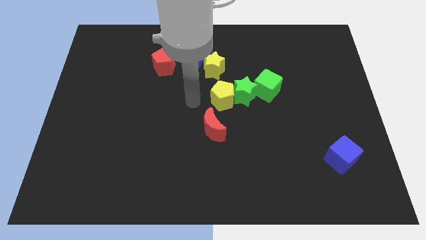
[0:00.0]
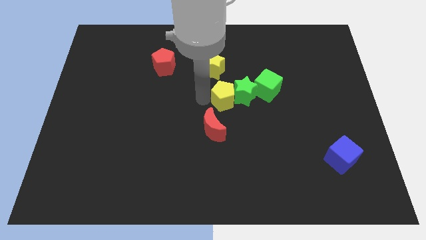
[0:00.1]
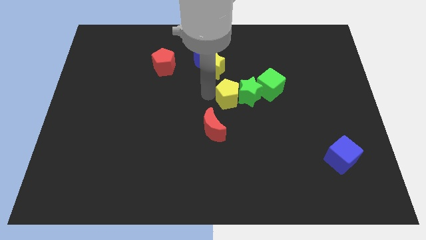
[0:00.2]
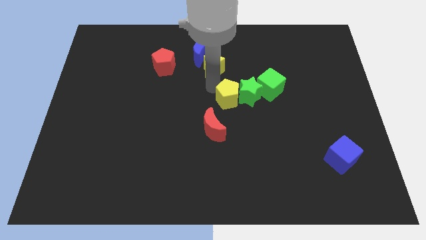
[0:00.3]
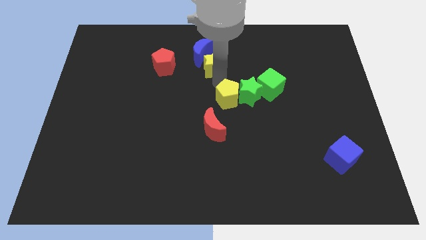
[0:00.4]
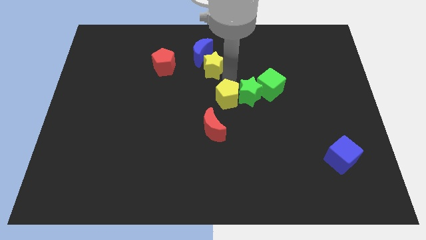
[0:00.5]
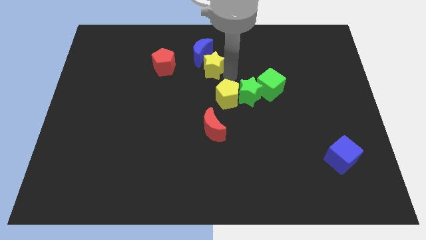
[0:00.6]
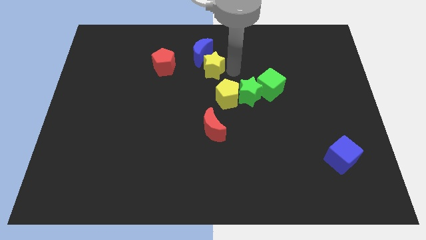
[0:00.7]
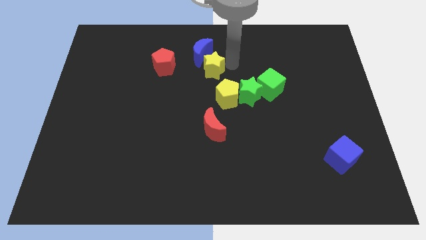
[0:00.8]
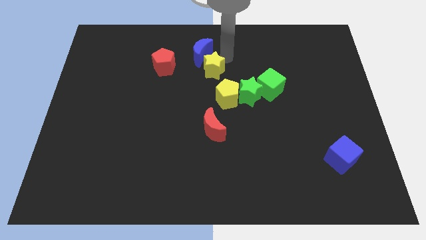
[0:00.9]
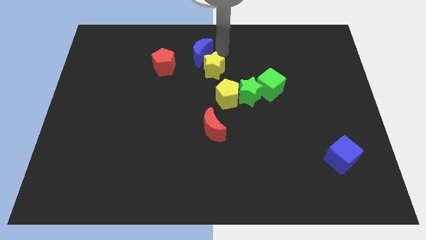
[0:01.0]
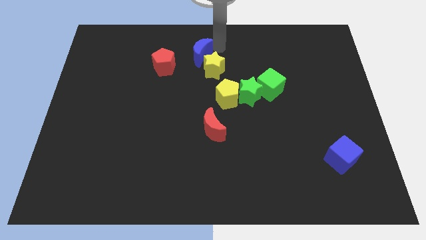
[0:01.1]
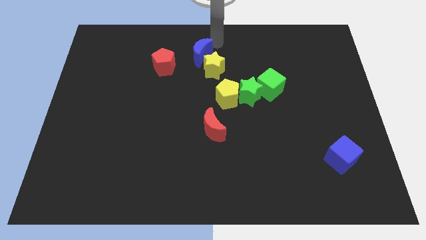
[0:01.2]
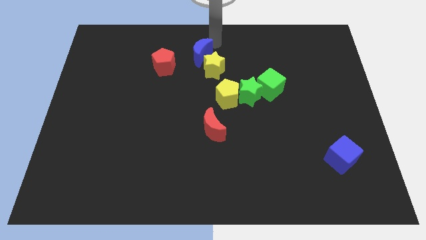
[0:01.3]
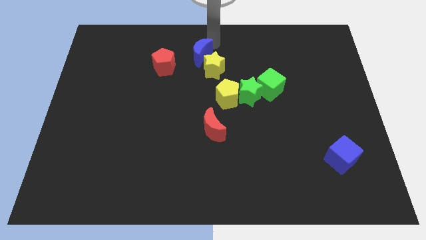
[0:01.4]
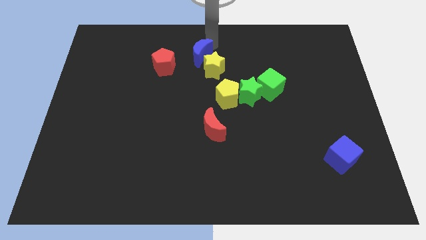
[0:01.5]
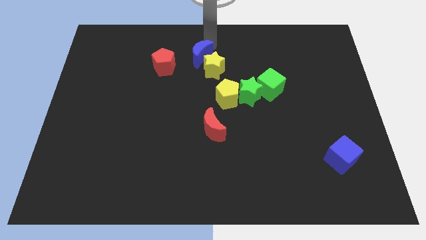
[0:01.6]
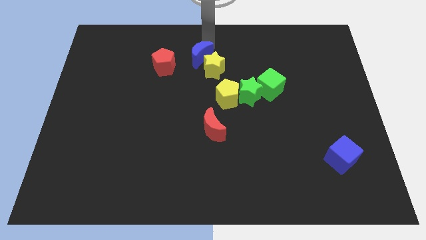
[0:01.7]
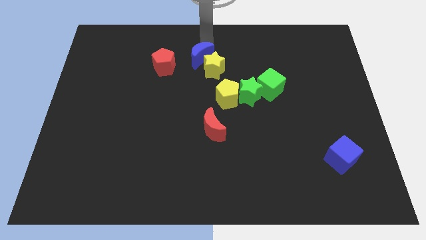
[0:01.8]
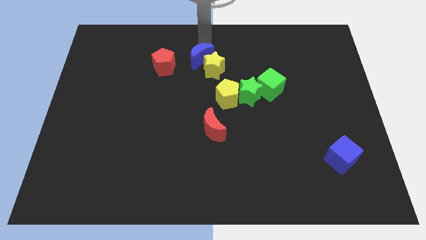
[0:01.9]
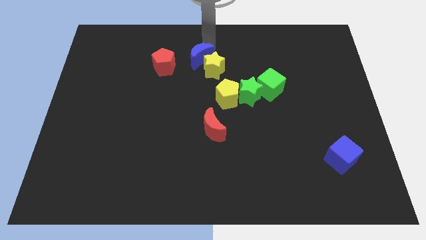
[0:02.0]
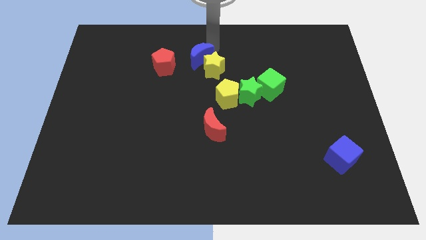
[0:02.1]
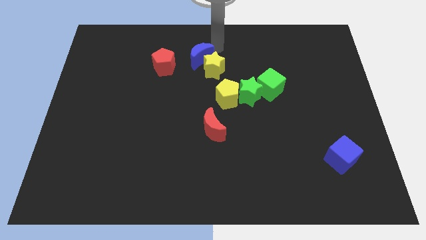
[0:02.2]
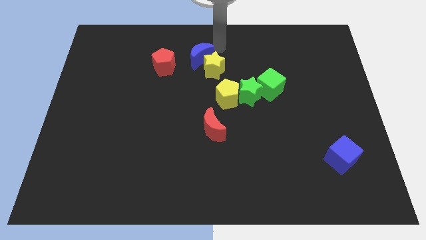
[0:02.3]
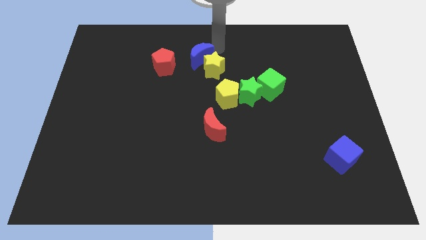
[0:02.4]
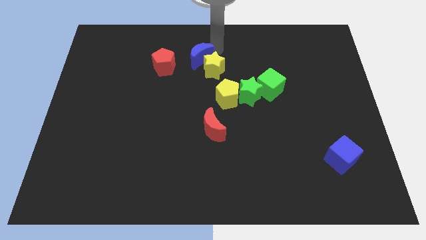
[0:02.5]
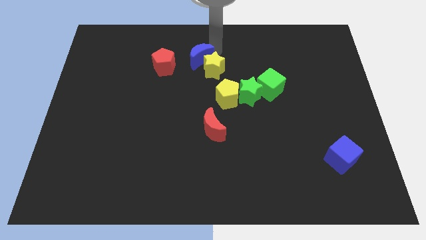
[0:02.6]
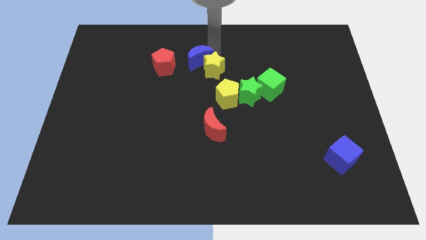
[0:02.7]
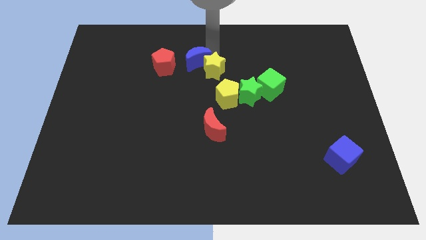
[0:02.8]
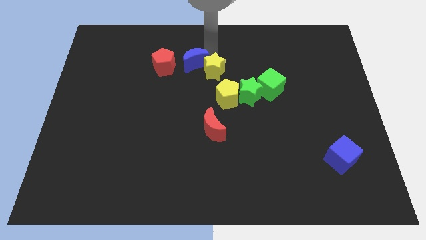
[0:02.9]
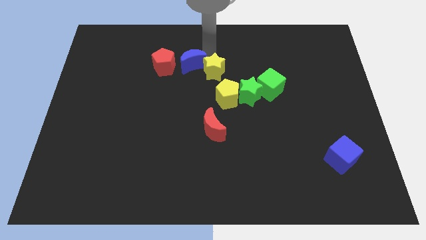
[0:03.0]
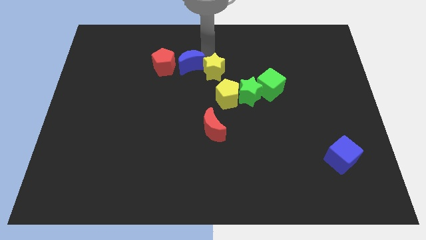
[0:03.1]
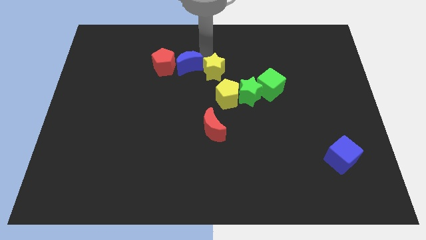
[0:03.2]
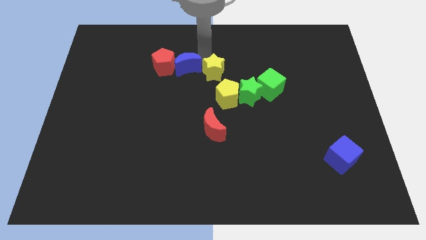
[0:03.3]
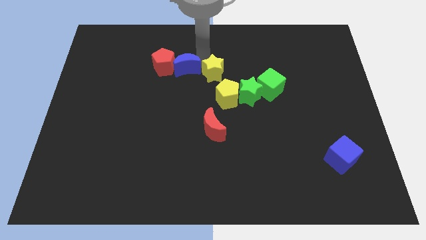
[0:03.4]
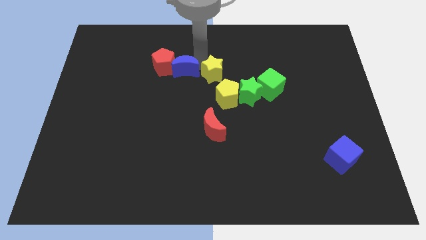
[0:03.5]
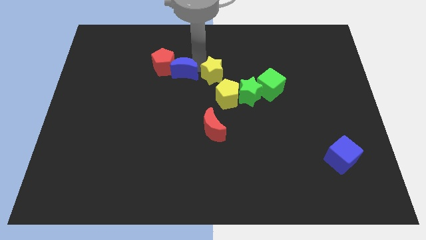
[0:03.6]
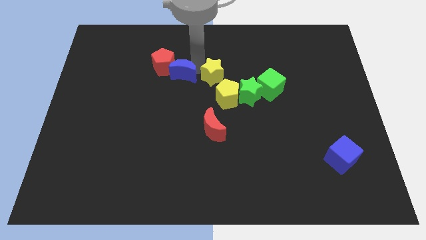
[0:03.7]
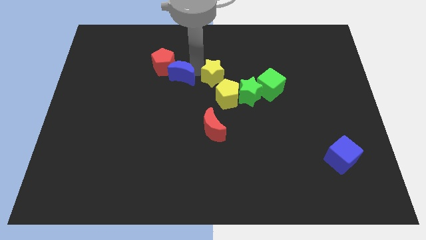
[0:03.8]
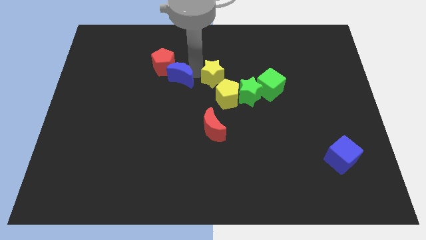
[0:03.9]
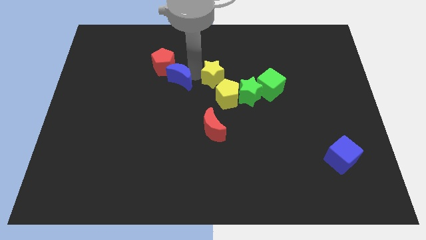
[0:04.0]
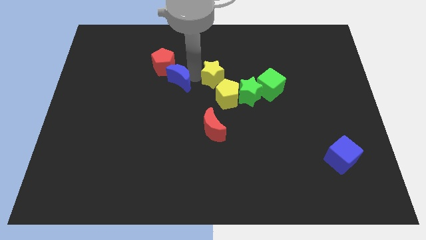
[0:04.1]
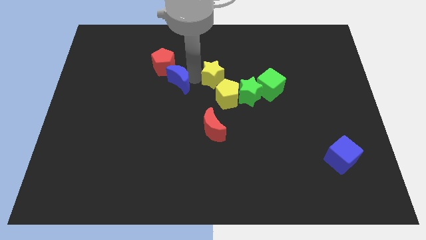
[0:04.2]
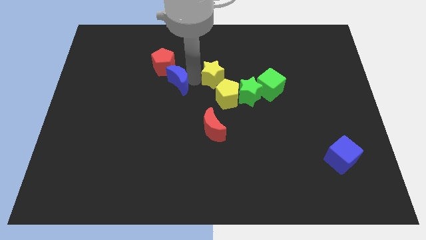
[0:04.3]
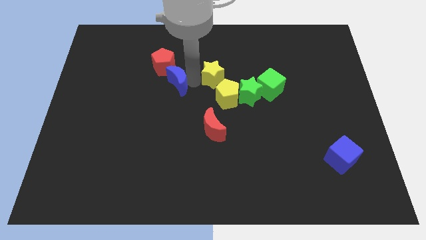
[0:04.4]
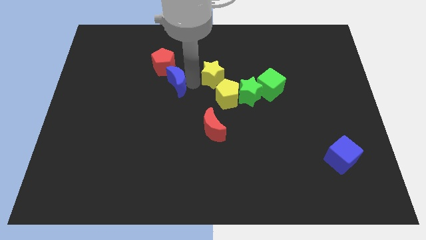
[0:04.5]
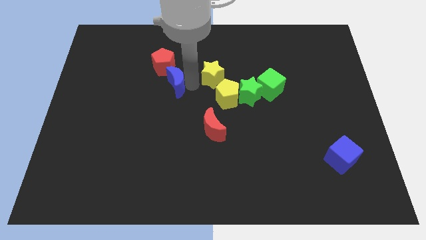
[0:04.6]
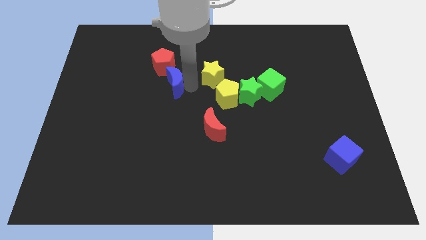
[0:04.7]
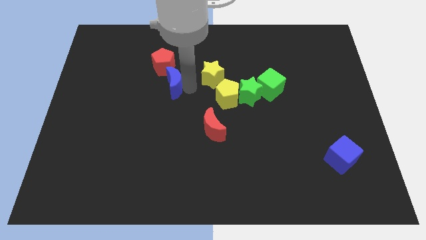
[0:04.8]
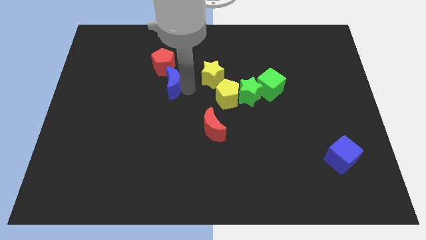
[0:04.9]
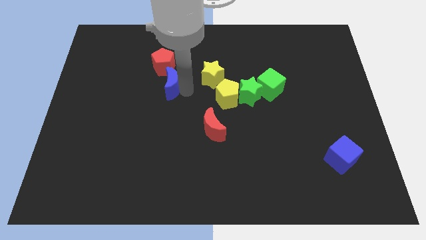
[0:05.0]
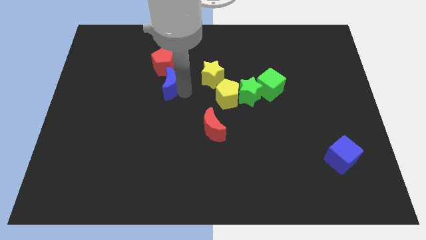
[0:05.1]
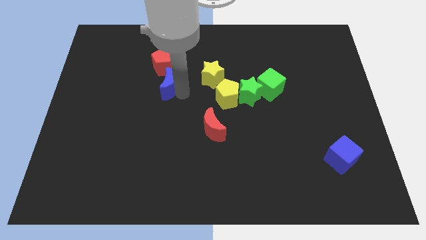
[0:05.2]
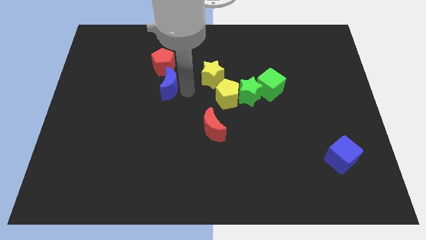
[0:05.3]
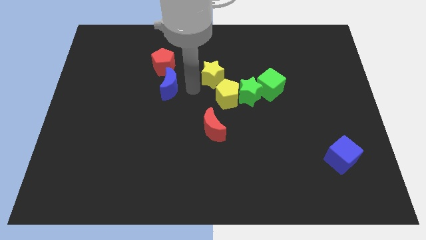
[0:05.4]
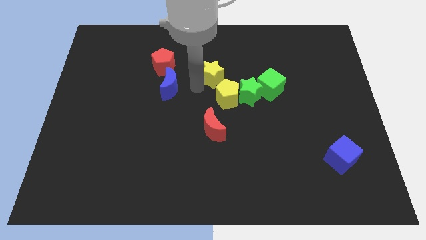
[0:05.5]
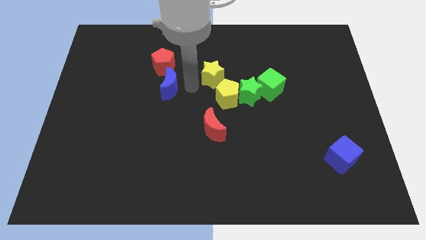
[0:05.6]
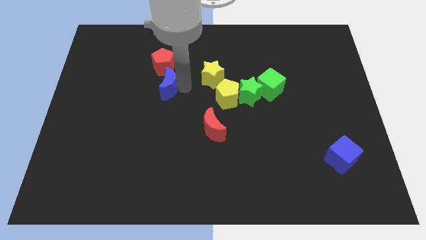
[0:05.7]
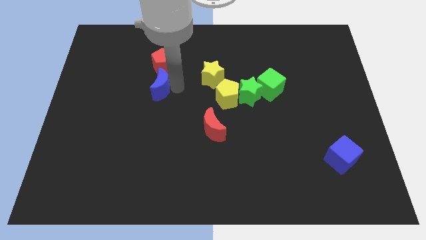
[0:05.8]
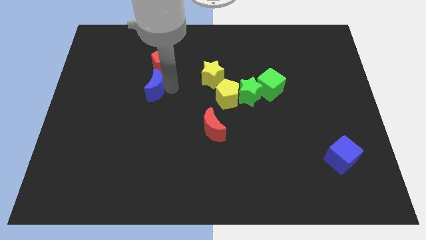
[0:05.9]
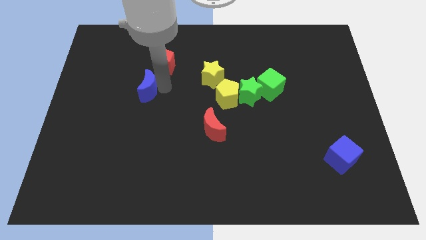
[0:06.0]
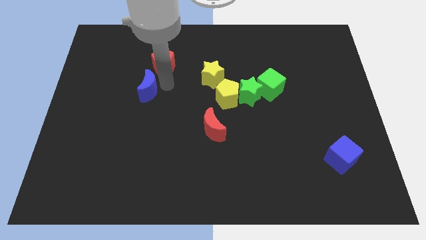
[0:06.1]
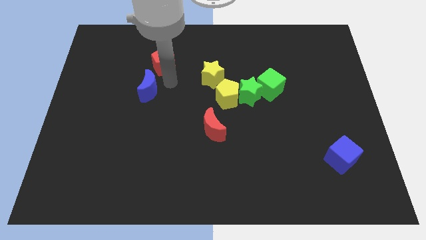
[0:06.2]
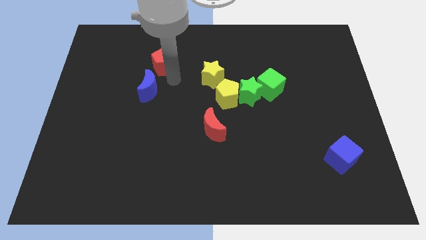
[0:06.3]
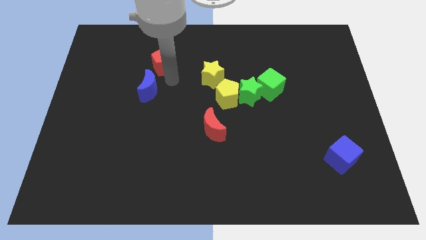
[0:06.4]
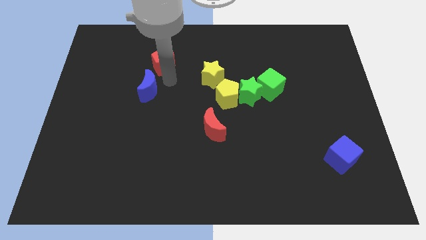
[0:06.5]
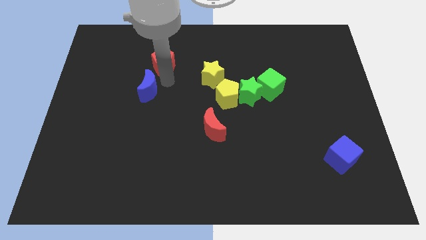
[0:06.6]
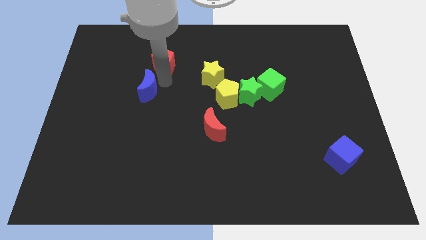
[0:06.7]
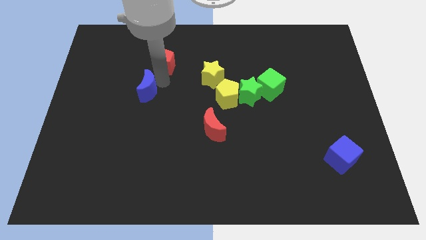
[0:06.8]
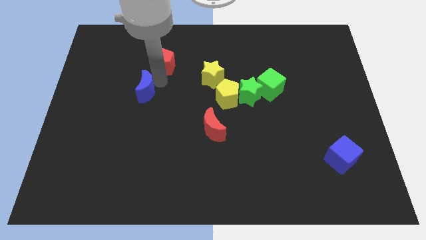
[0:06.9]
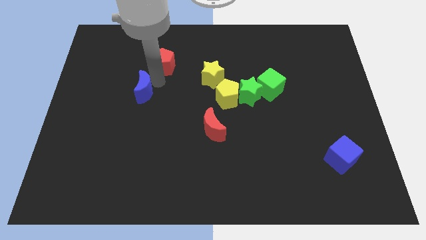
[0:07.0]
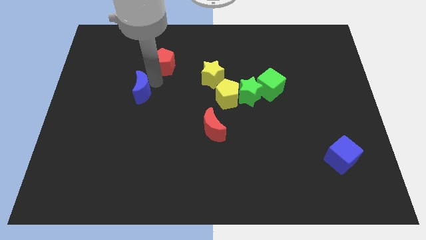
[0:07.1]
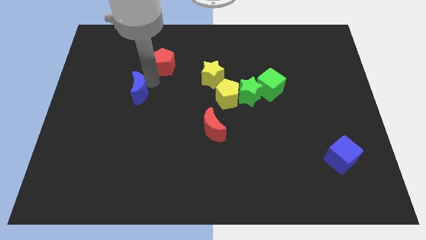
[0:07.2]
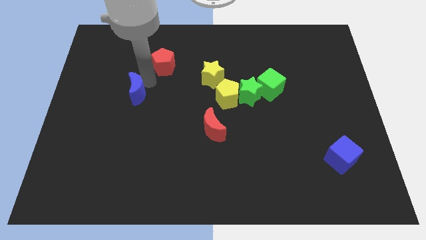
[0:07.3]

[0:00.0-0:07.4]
push the blue moon downwards and to the left diagonally
